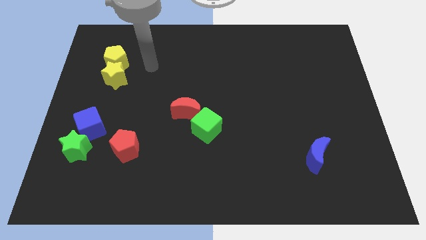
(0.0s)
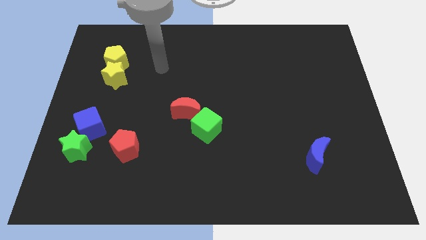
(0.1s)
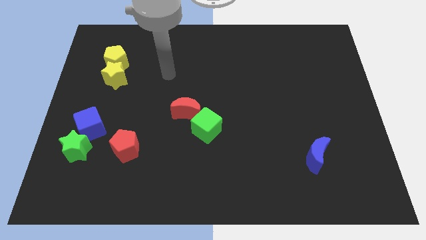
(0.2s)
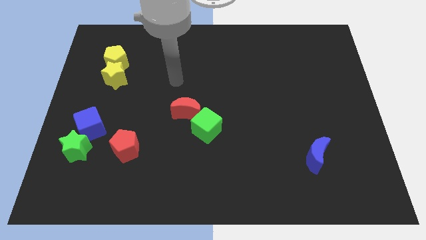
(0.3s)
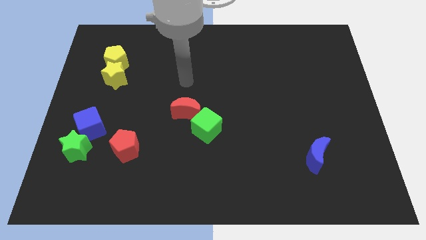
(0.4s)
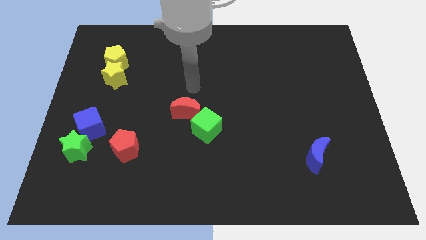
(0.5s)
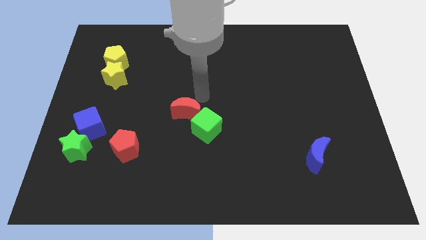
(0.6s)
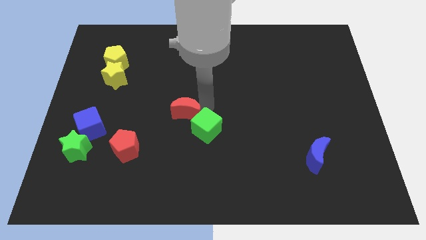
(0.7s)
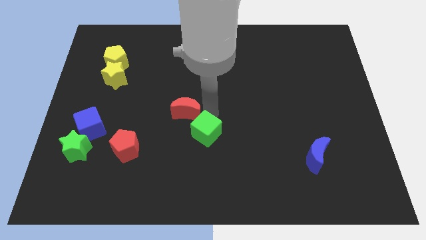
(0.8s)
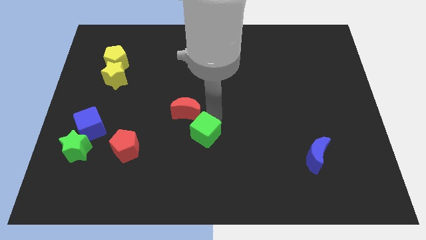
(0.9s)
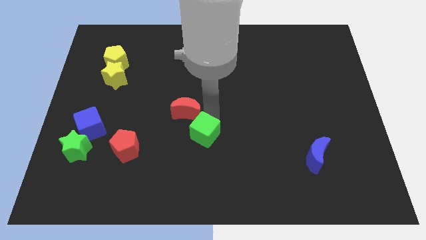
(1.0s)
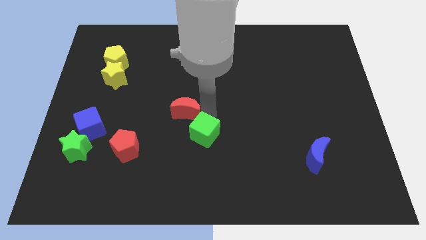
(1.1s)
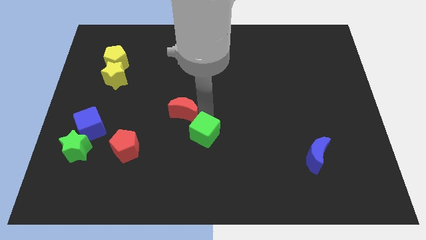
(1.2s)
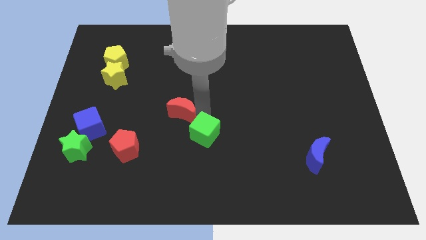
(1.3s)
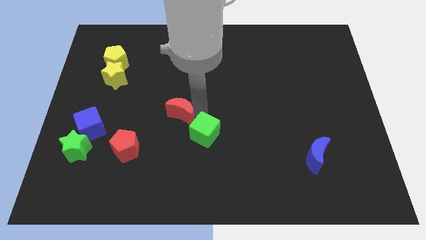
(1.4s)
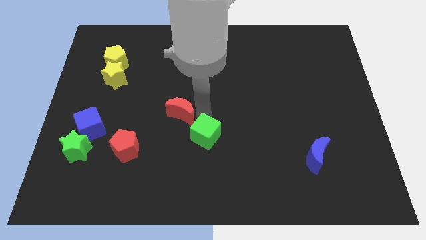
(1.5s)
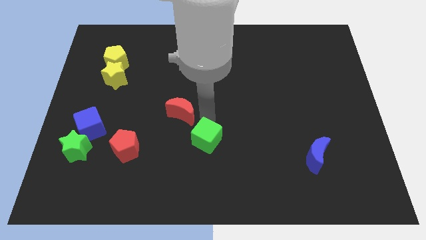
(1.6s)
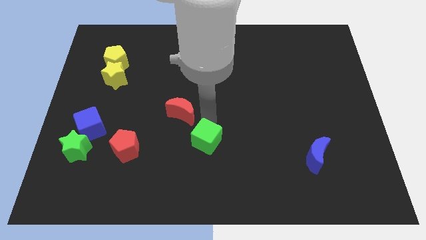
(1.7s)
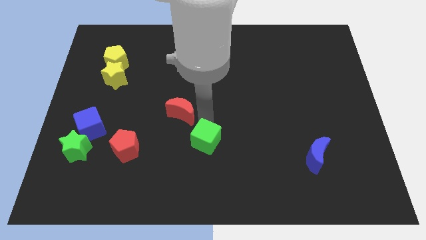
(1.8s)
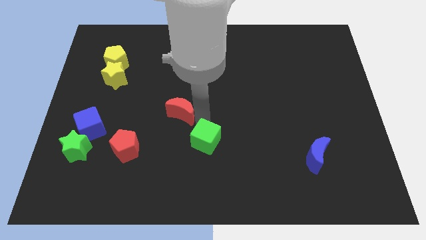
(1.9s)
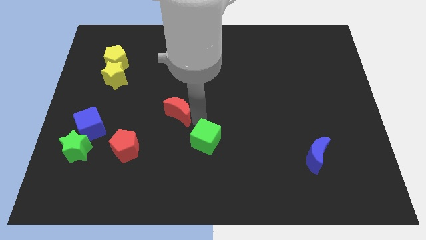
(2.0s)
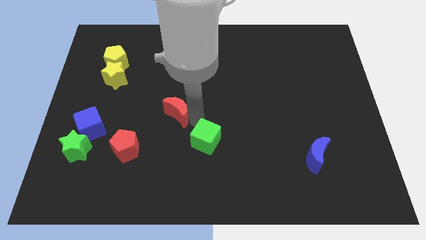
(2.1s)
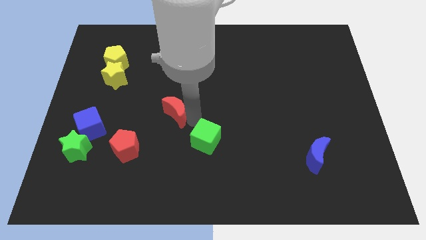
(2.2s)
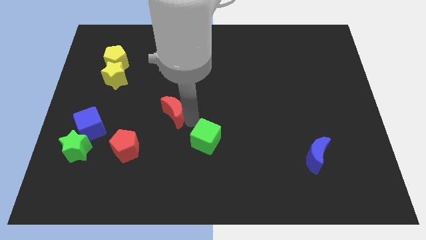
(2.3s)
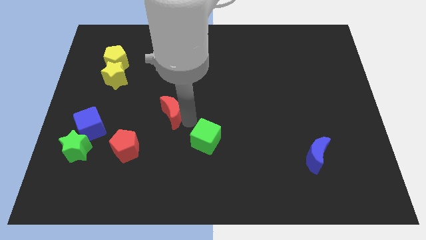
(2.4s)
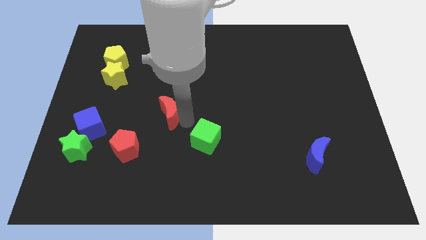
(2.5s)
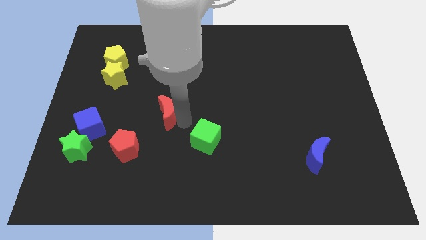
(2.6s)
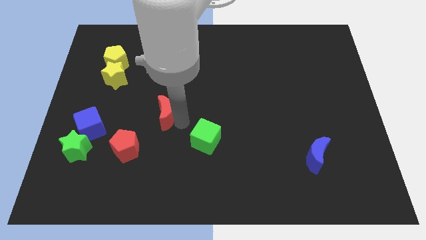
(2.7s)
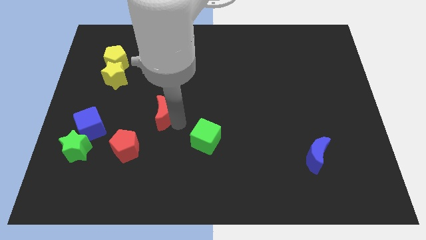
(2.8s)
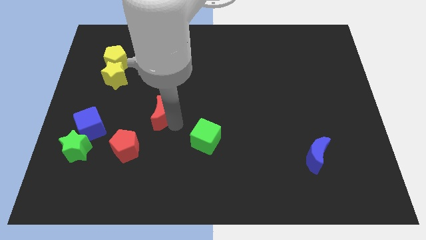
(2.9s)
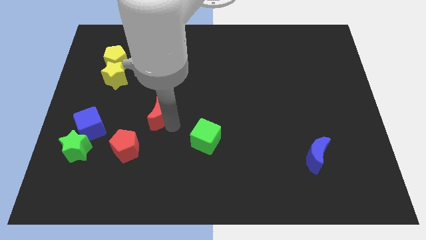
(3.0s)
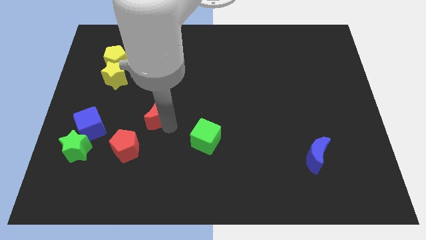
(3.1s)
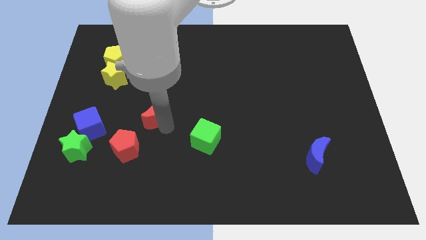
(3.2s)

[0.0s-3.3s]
slightly push the red moon left

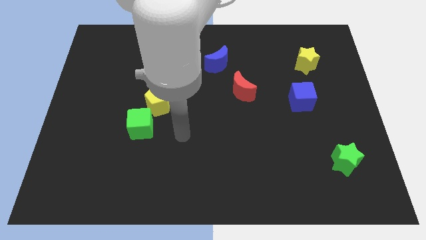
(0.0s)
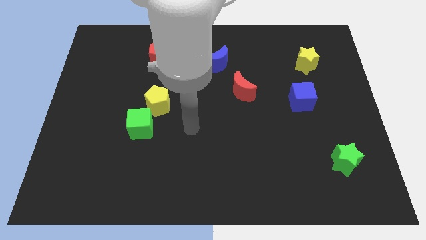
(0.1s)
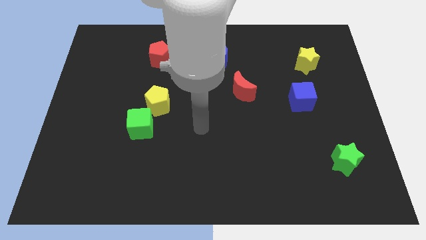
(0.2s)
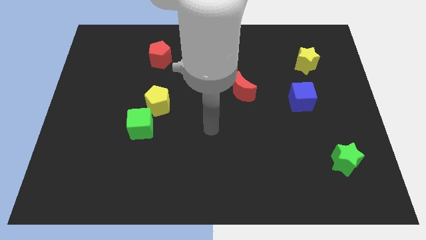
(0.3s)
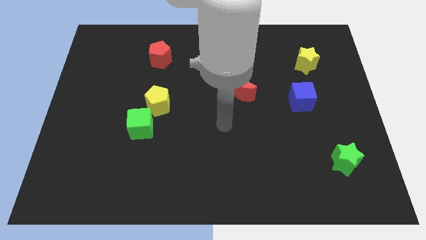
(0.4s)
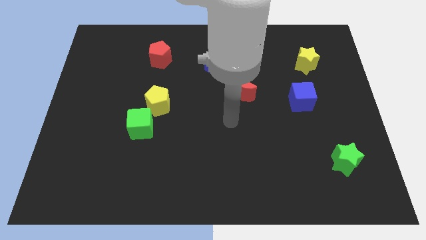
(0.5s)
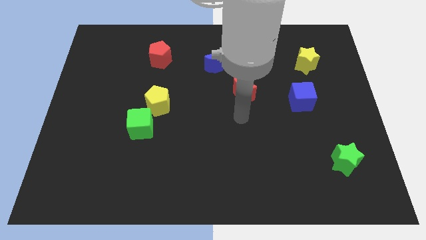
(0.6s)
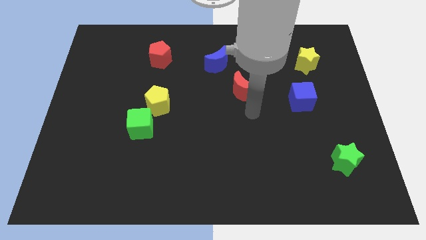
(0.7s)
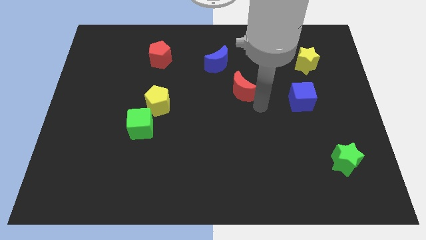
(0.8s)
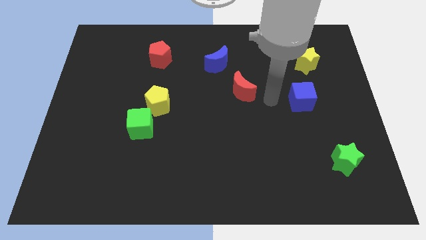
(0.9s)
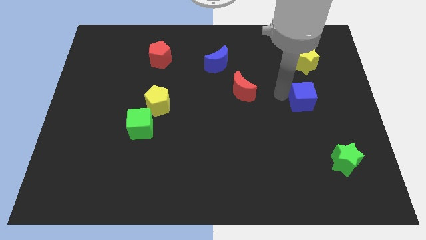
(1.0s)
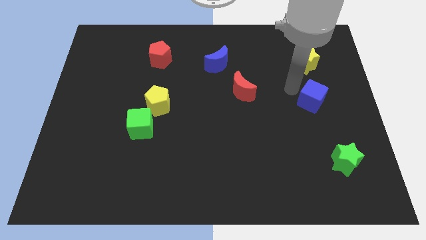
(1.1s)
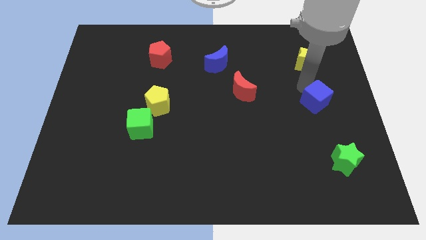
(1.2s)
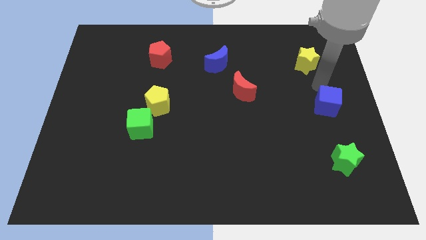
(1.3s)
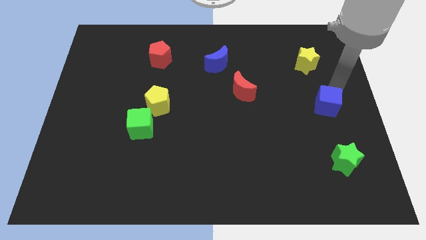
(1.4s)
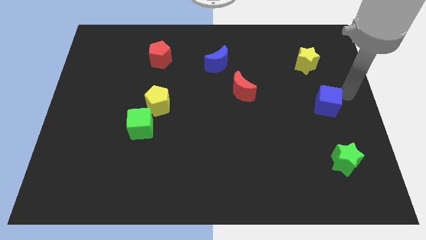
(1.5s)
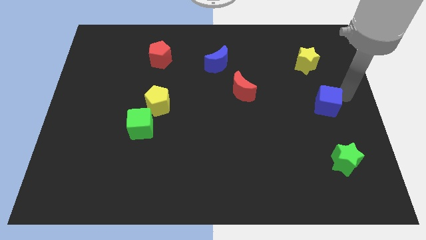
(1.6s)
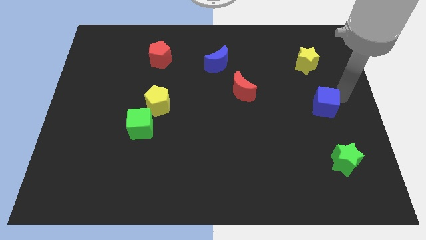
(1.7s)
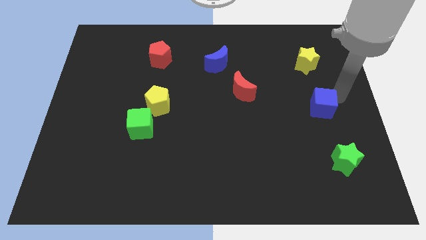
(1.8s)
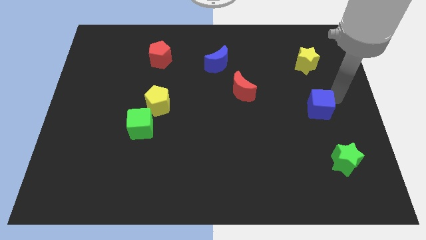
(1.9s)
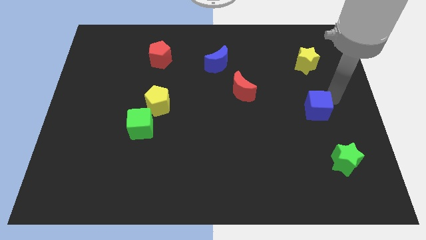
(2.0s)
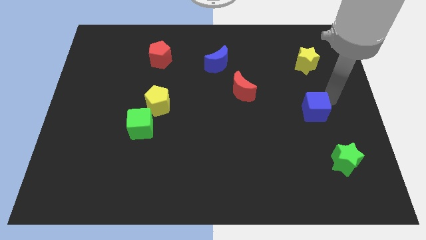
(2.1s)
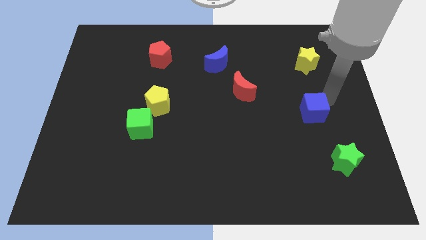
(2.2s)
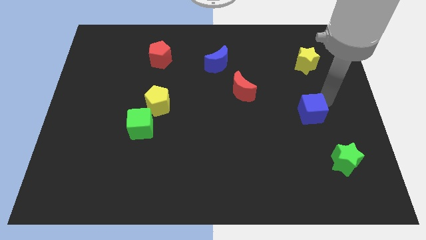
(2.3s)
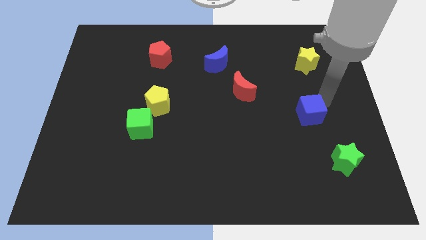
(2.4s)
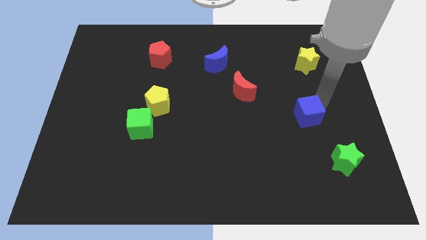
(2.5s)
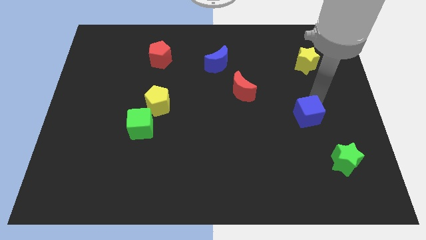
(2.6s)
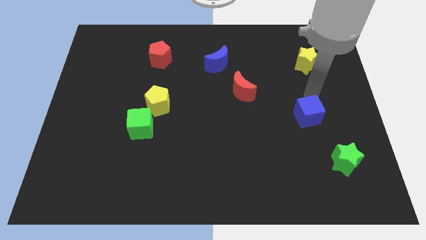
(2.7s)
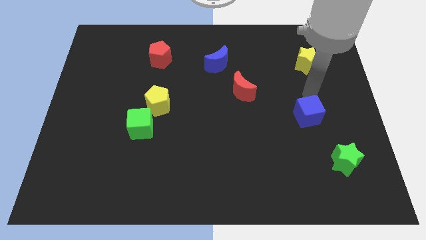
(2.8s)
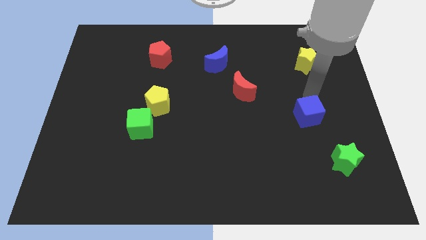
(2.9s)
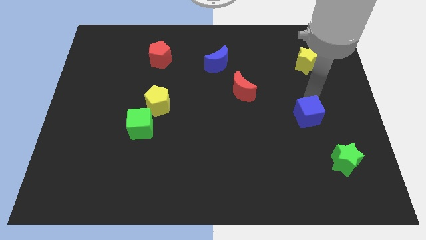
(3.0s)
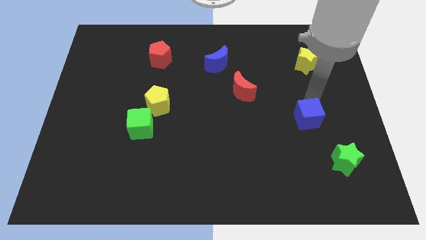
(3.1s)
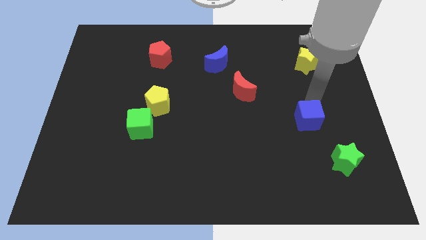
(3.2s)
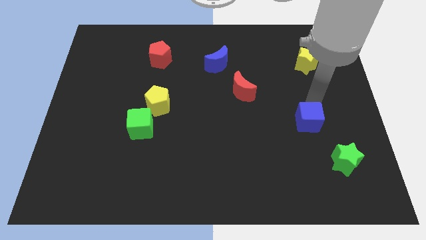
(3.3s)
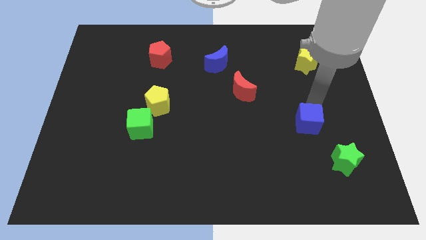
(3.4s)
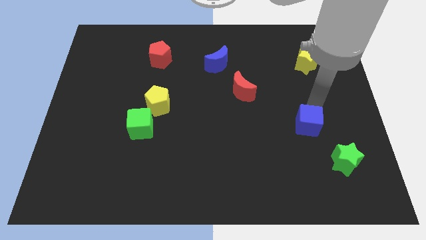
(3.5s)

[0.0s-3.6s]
slightly slide the blue cube down

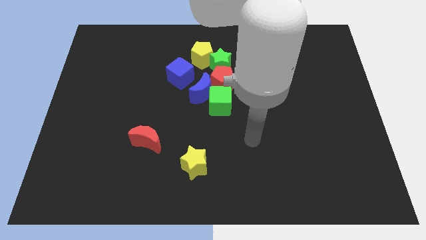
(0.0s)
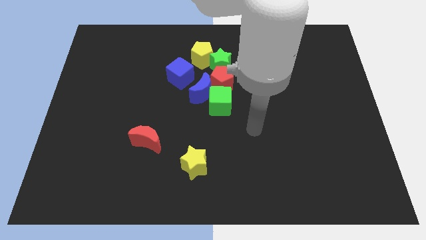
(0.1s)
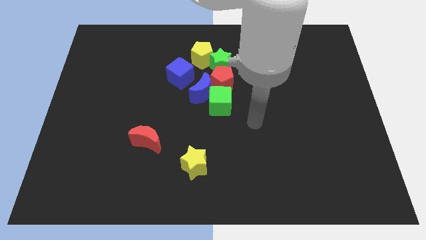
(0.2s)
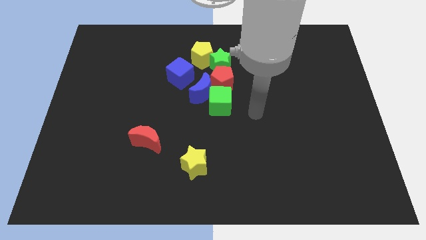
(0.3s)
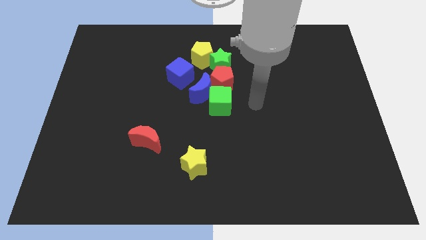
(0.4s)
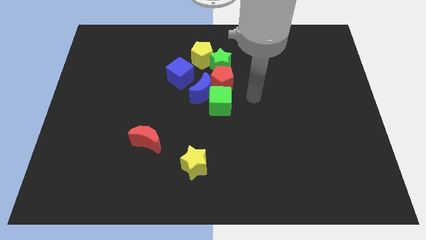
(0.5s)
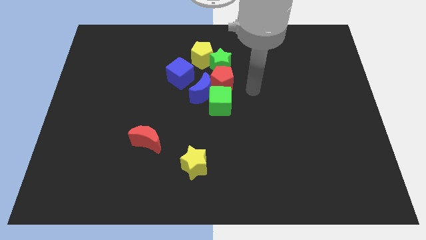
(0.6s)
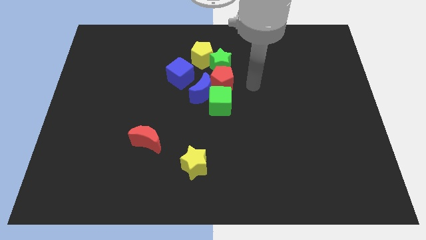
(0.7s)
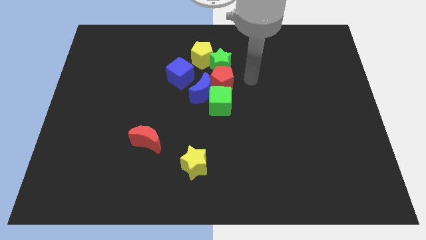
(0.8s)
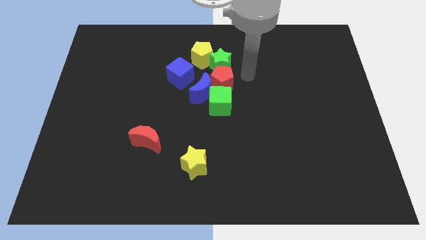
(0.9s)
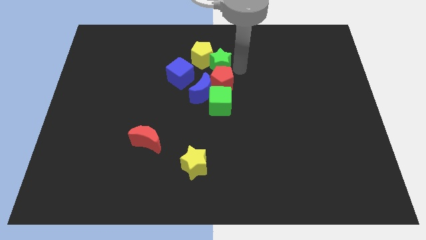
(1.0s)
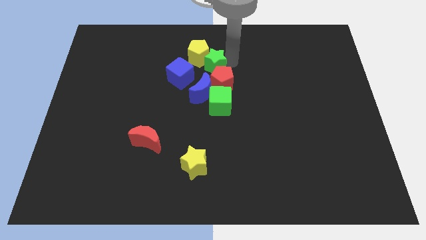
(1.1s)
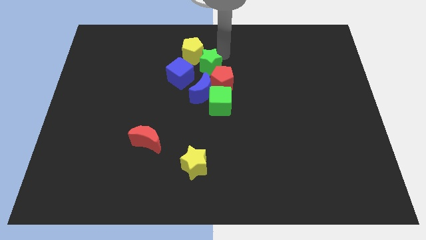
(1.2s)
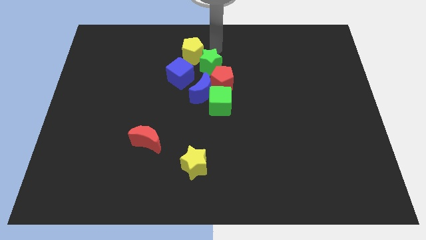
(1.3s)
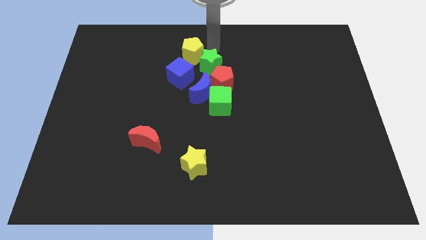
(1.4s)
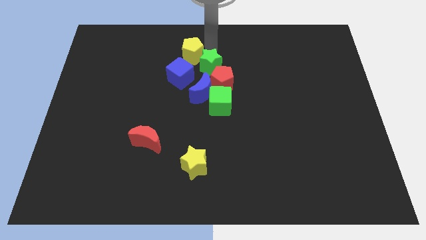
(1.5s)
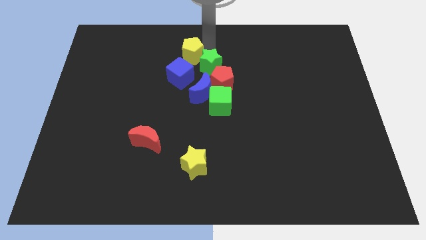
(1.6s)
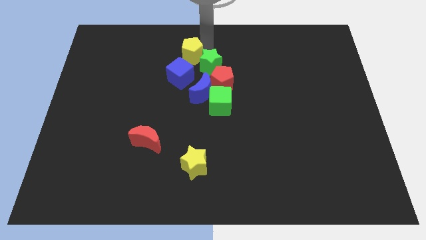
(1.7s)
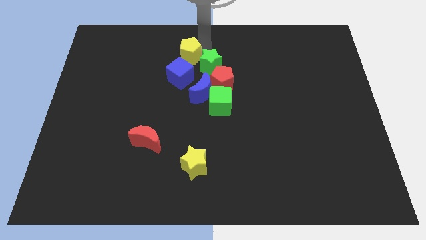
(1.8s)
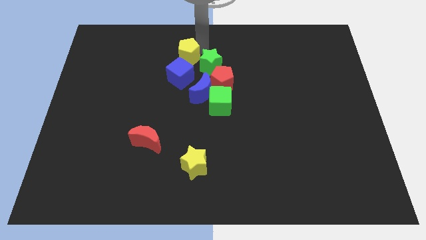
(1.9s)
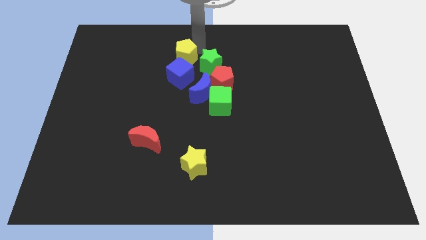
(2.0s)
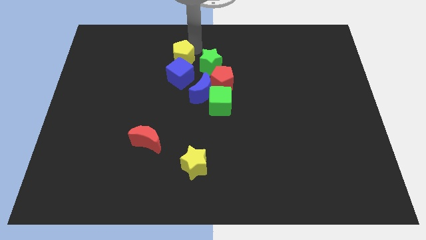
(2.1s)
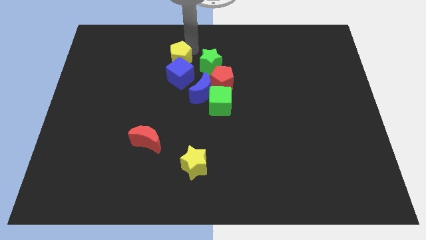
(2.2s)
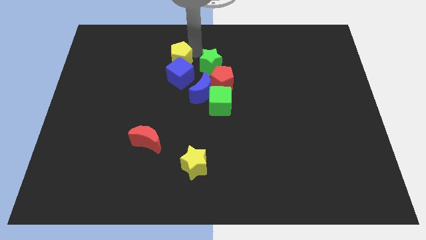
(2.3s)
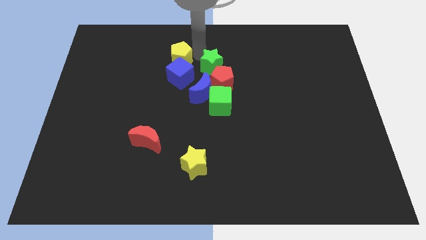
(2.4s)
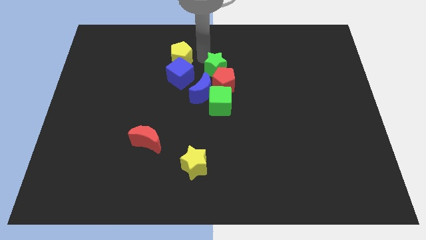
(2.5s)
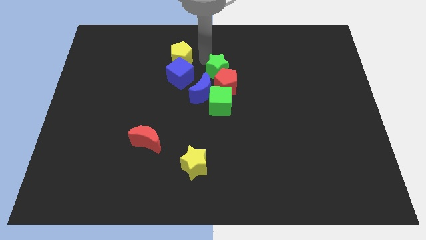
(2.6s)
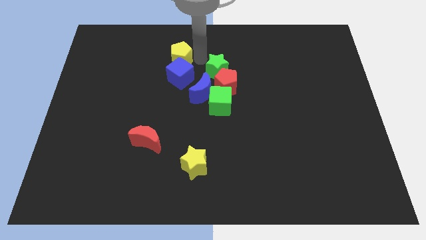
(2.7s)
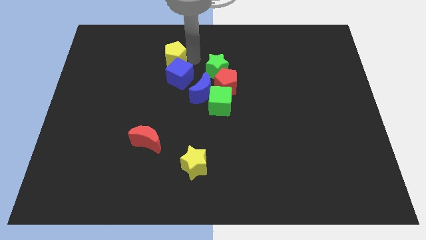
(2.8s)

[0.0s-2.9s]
slightly move the yellow pentagon to the left
